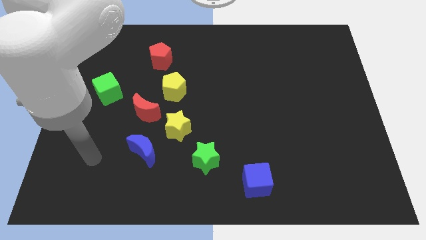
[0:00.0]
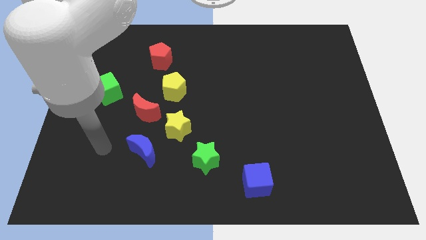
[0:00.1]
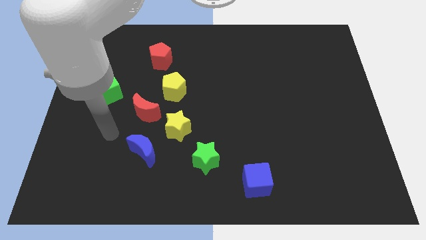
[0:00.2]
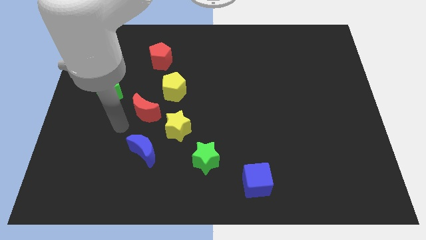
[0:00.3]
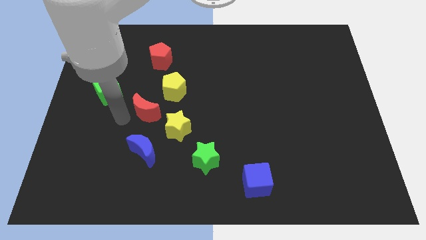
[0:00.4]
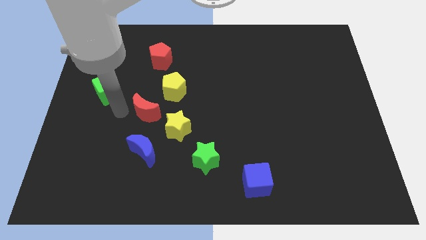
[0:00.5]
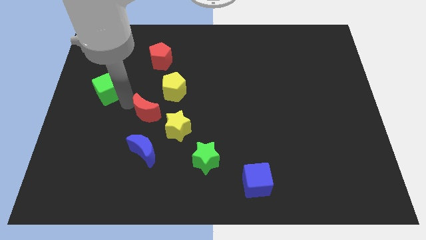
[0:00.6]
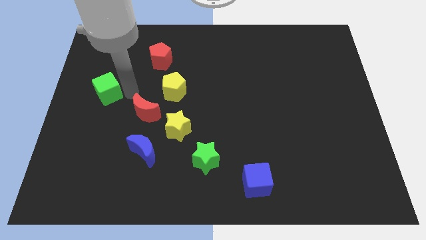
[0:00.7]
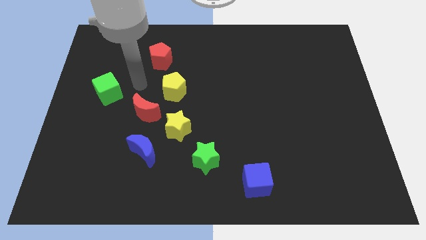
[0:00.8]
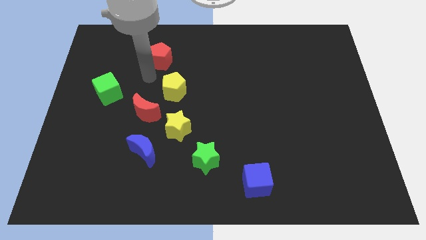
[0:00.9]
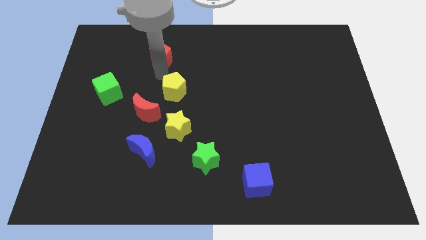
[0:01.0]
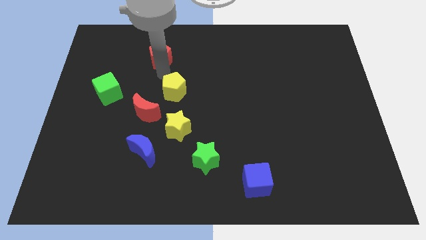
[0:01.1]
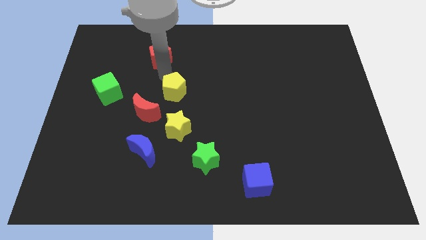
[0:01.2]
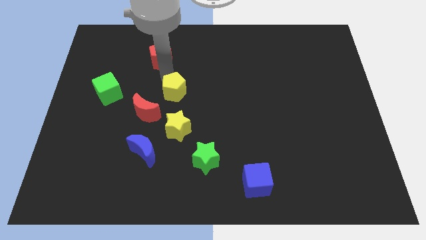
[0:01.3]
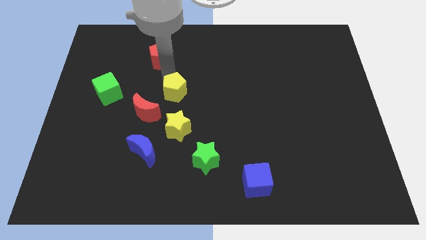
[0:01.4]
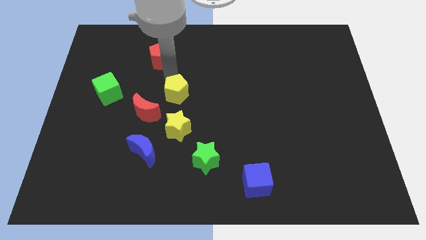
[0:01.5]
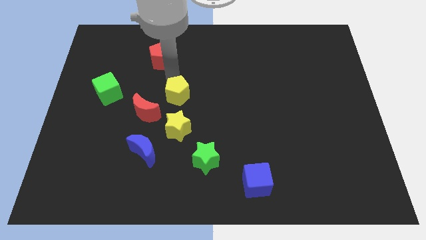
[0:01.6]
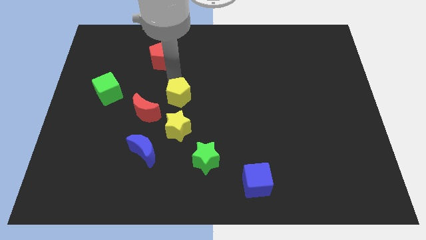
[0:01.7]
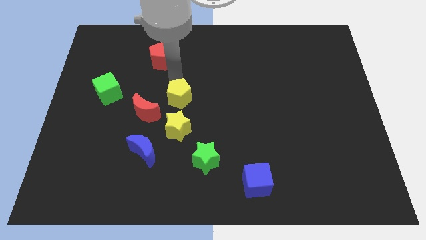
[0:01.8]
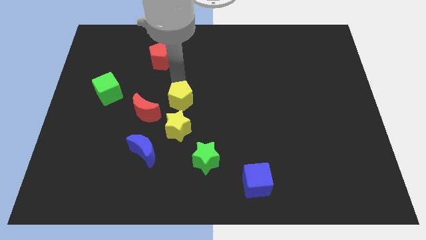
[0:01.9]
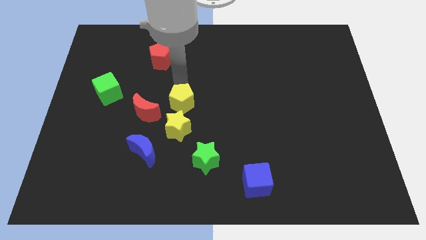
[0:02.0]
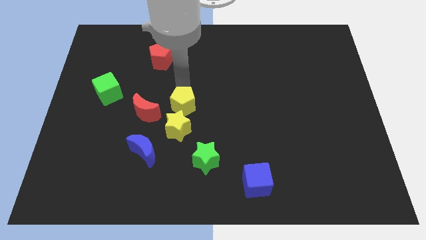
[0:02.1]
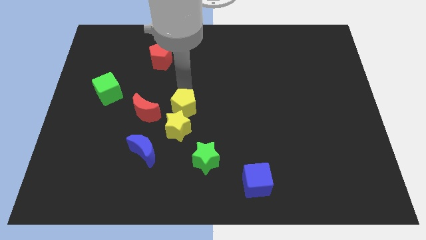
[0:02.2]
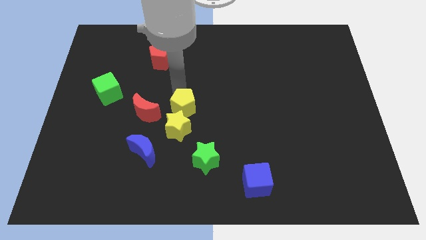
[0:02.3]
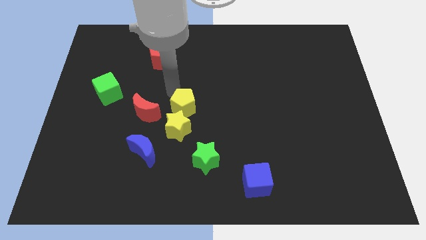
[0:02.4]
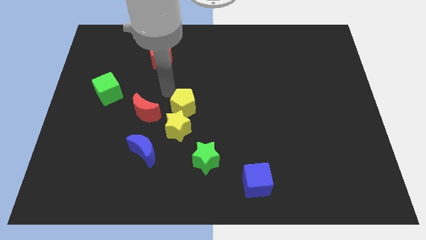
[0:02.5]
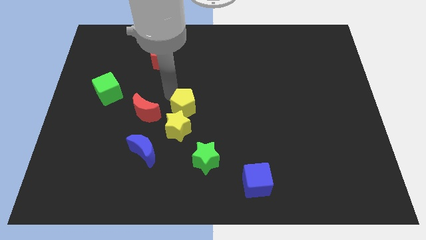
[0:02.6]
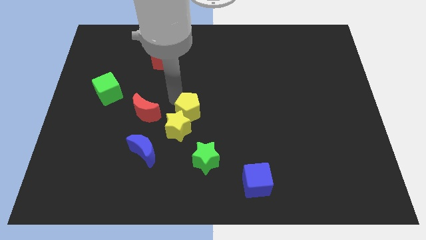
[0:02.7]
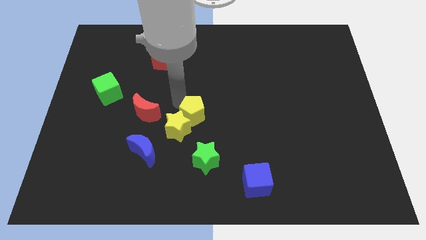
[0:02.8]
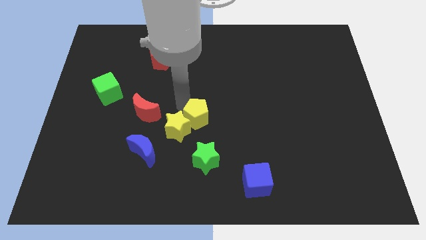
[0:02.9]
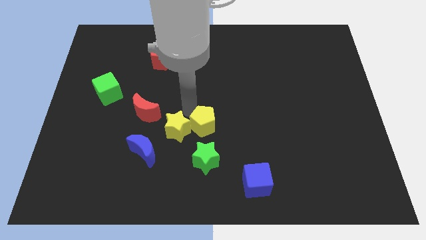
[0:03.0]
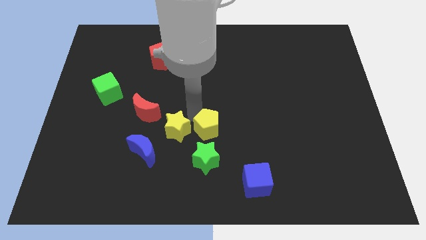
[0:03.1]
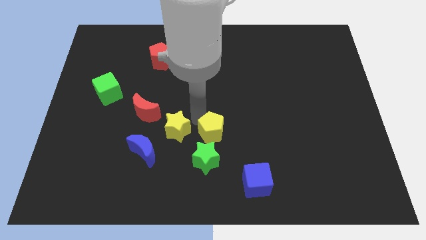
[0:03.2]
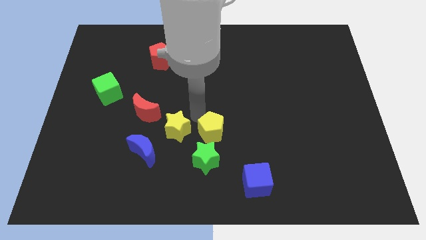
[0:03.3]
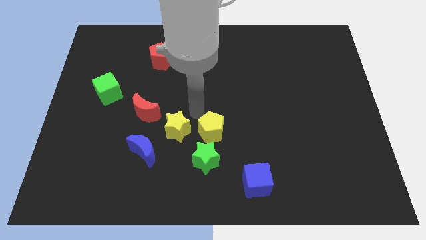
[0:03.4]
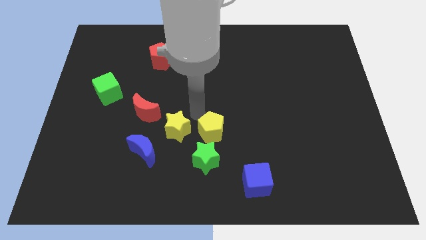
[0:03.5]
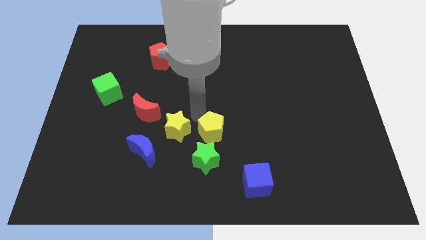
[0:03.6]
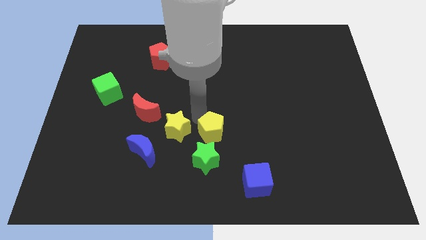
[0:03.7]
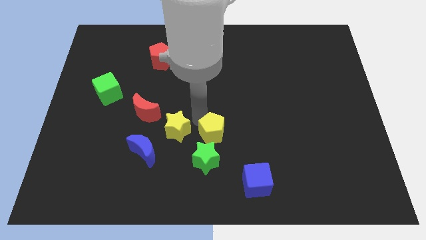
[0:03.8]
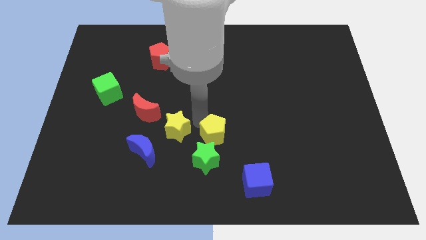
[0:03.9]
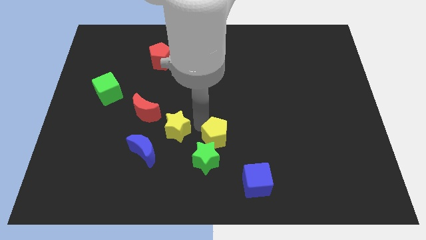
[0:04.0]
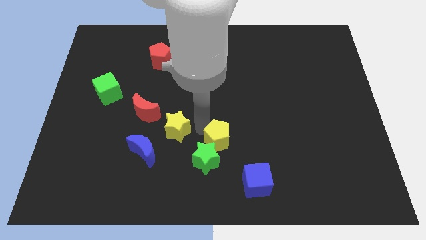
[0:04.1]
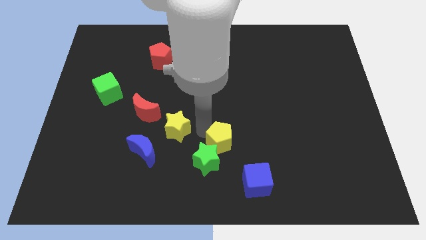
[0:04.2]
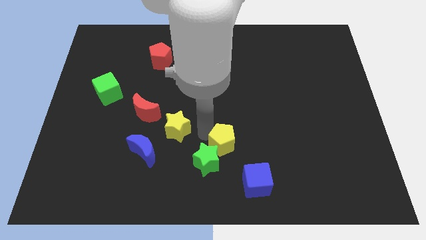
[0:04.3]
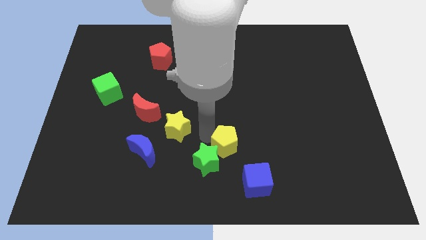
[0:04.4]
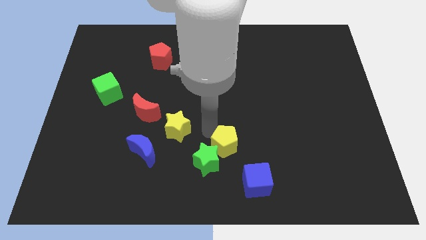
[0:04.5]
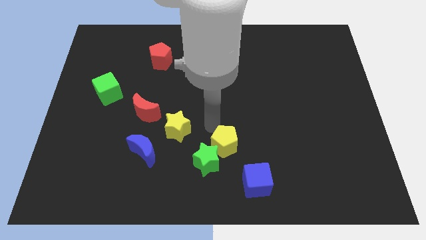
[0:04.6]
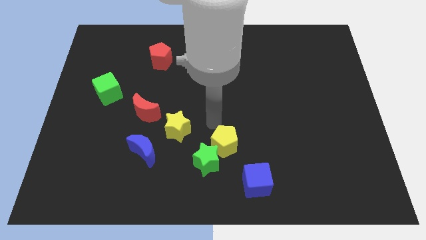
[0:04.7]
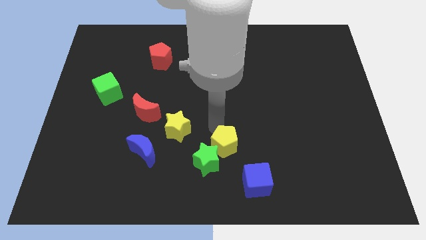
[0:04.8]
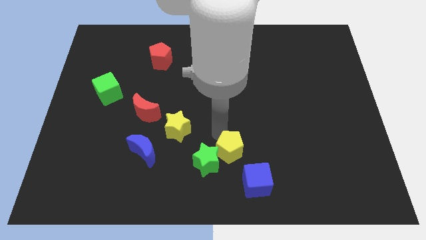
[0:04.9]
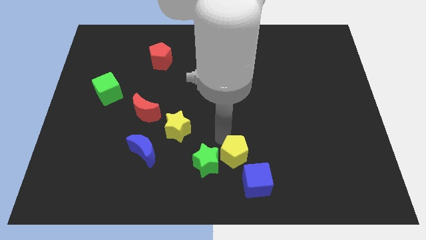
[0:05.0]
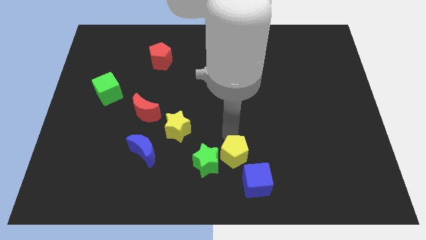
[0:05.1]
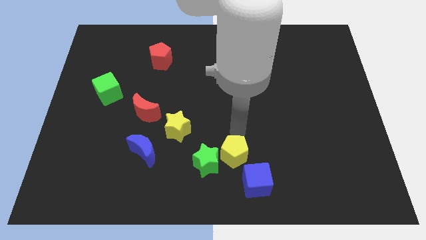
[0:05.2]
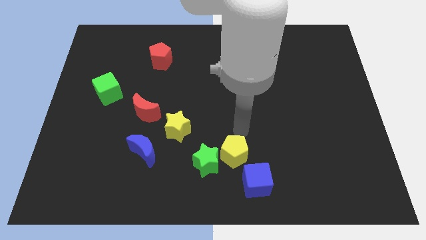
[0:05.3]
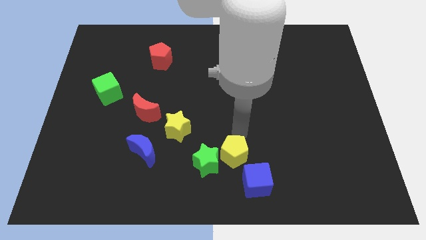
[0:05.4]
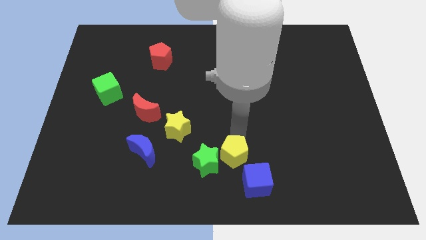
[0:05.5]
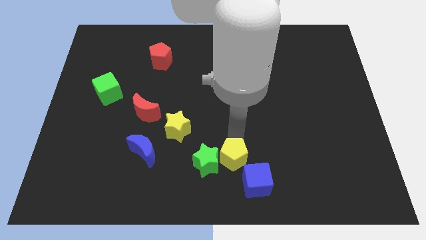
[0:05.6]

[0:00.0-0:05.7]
slide the yellow pentagon to the bottom

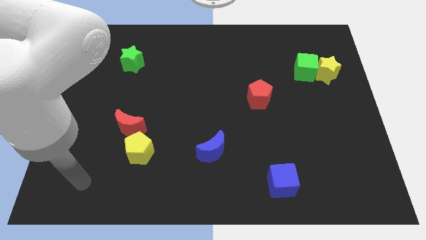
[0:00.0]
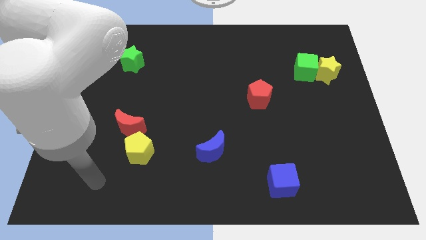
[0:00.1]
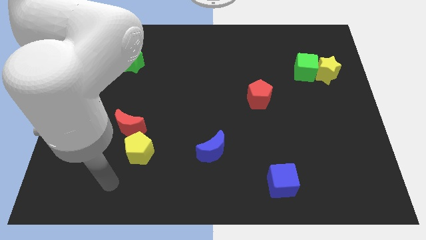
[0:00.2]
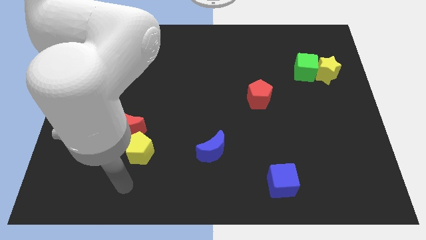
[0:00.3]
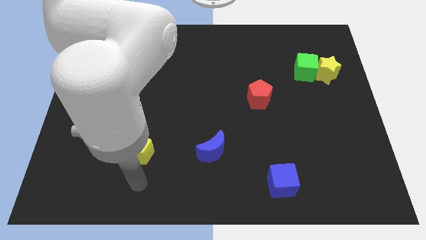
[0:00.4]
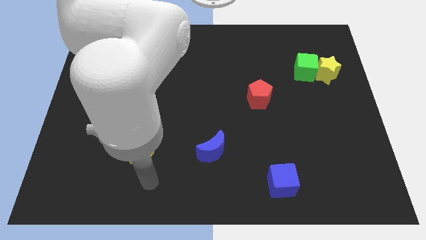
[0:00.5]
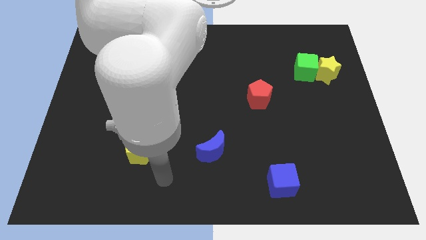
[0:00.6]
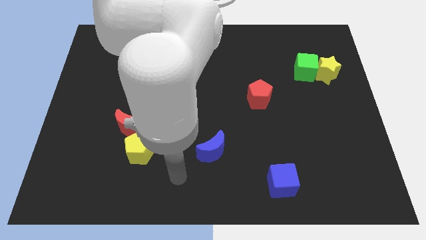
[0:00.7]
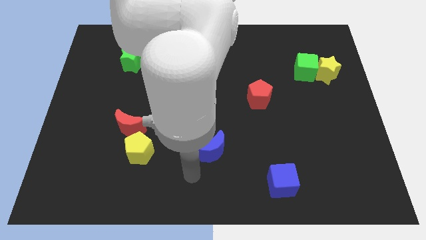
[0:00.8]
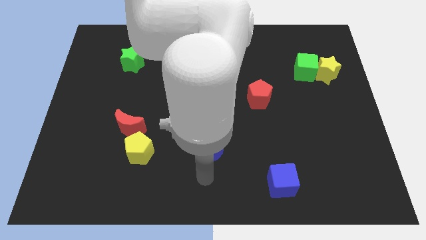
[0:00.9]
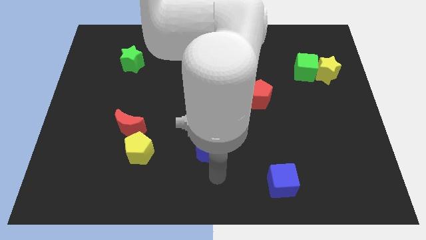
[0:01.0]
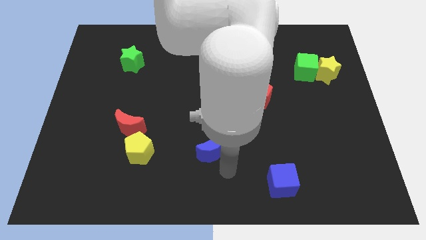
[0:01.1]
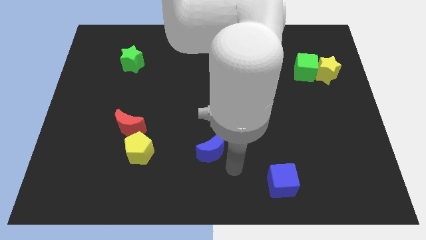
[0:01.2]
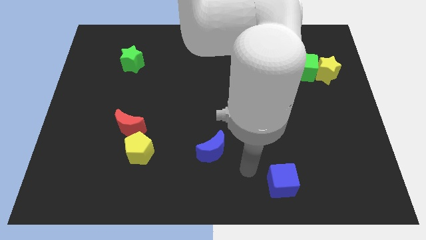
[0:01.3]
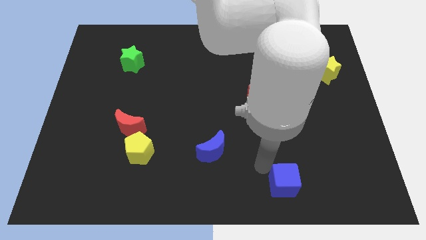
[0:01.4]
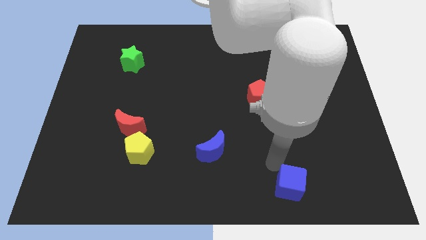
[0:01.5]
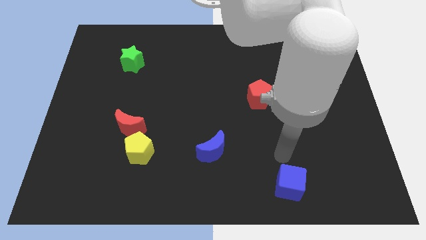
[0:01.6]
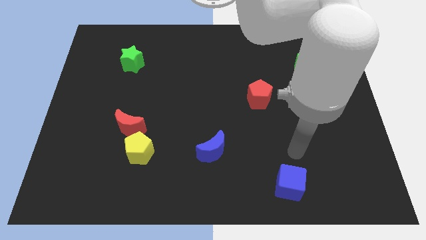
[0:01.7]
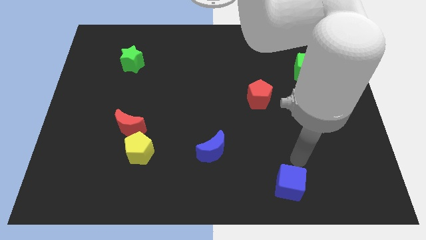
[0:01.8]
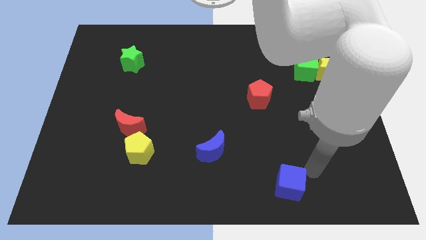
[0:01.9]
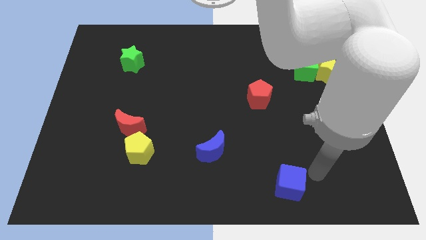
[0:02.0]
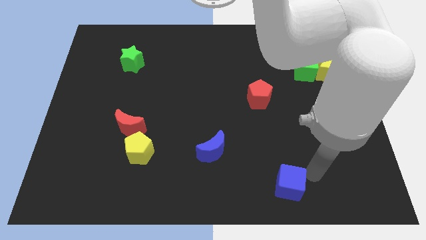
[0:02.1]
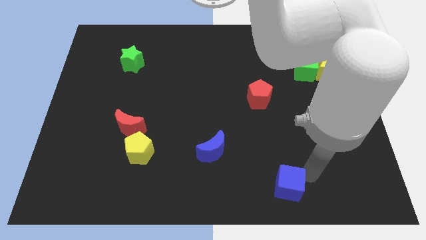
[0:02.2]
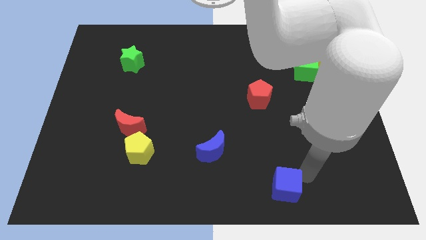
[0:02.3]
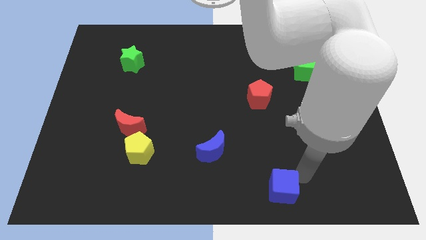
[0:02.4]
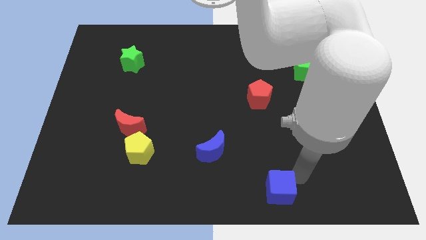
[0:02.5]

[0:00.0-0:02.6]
slide the blue cube to the bottom side
